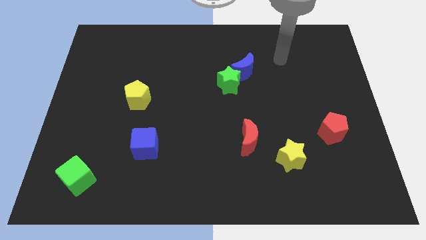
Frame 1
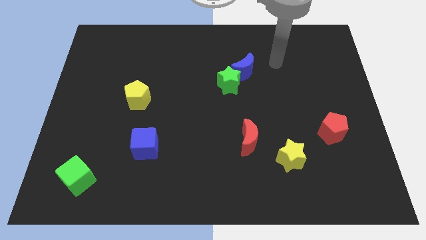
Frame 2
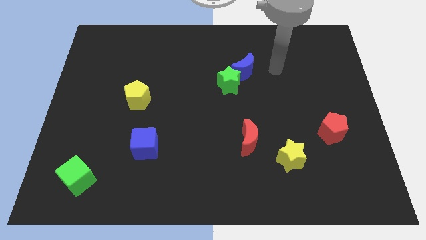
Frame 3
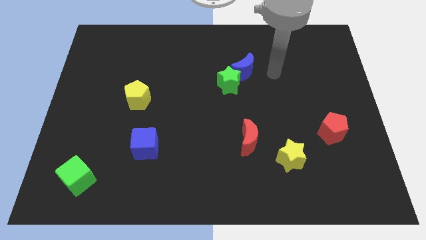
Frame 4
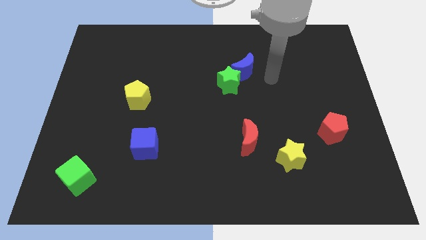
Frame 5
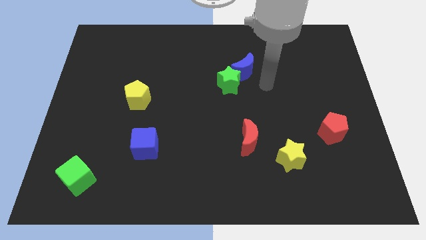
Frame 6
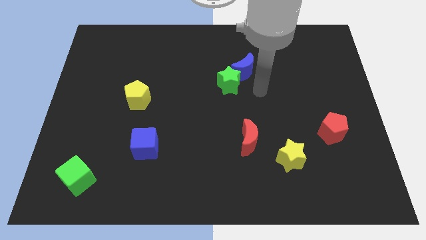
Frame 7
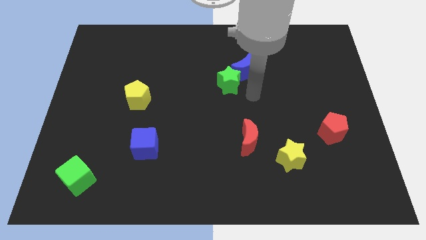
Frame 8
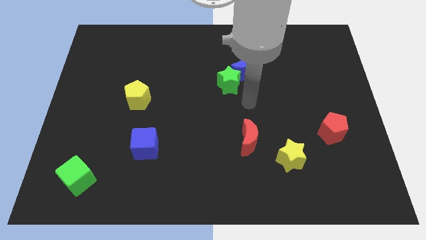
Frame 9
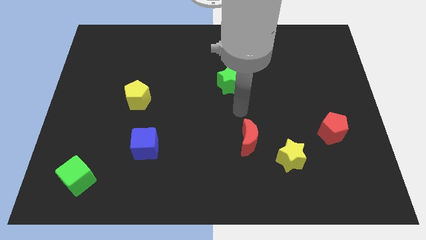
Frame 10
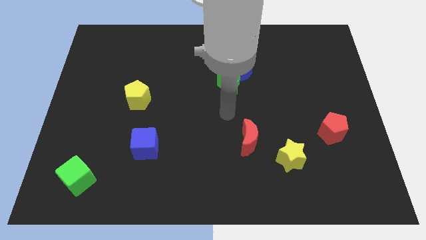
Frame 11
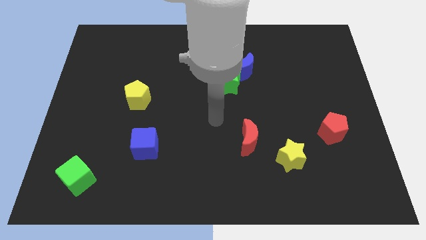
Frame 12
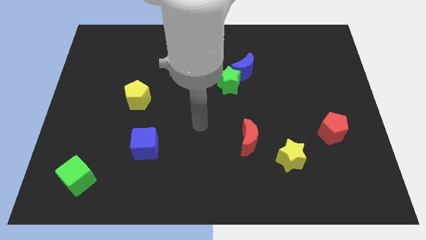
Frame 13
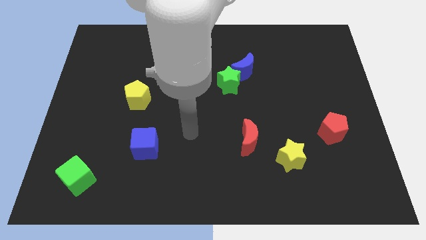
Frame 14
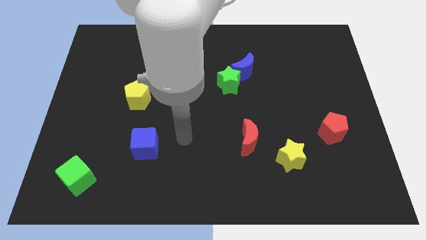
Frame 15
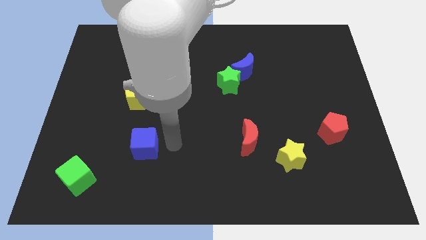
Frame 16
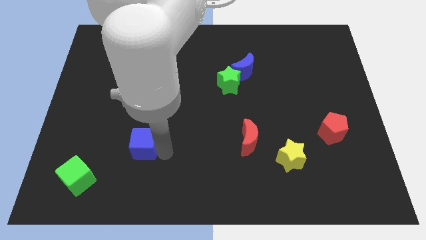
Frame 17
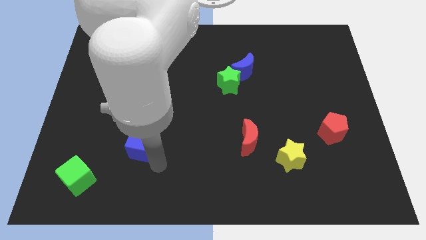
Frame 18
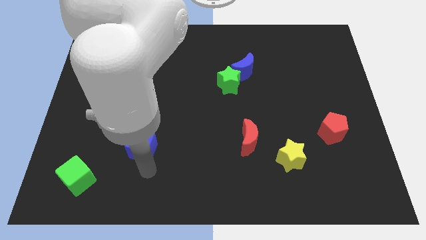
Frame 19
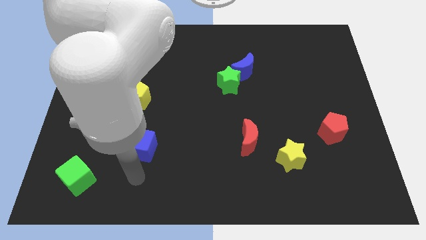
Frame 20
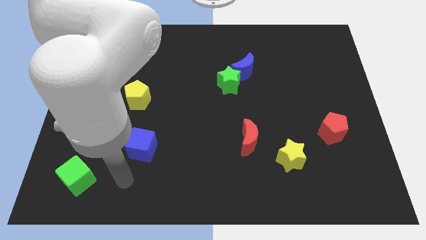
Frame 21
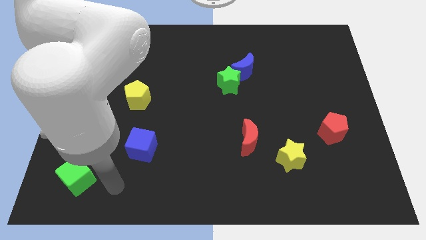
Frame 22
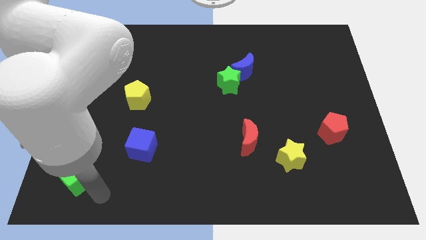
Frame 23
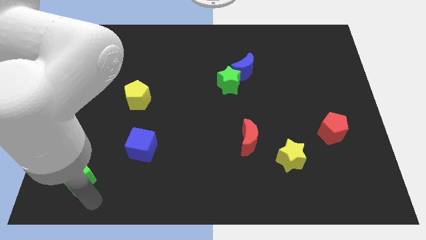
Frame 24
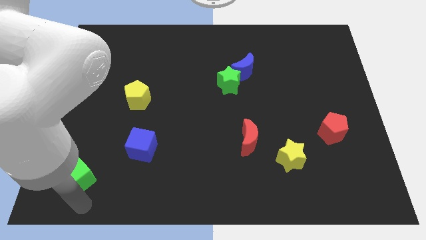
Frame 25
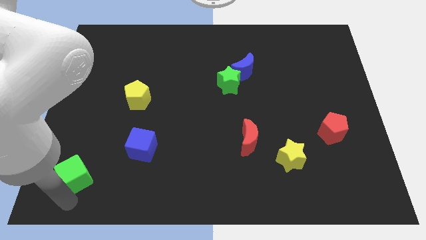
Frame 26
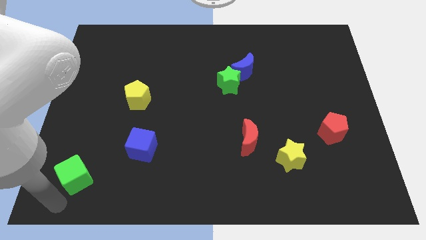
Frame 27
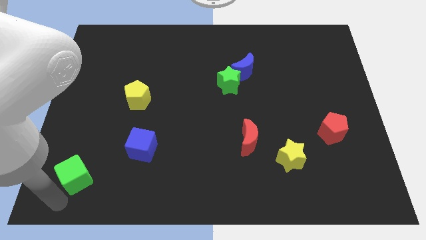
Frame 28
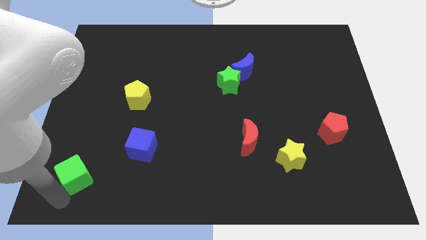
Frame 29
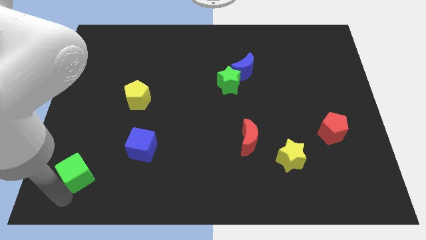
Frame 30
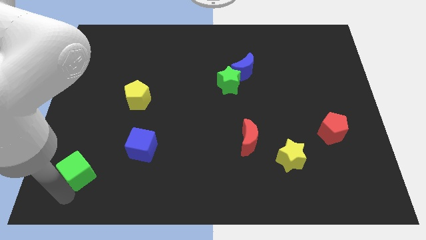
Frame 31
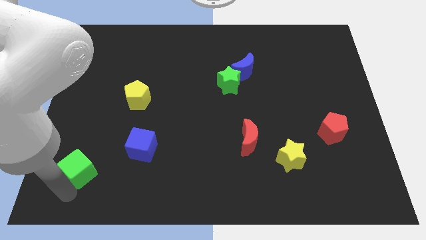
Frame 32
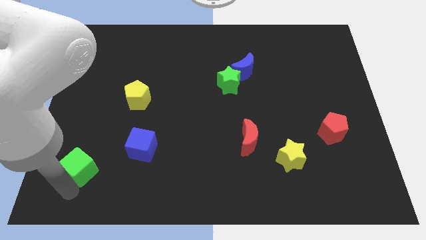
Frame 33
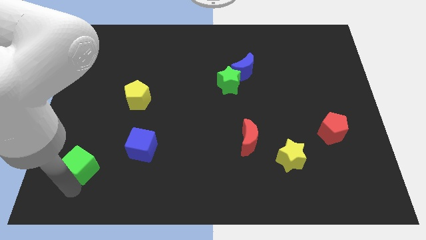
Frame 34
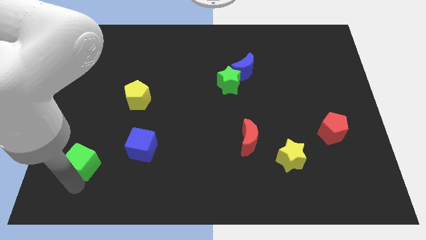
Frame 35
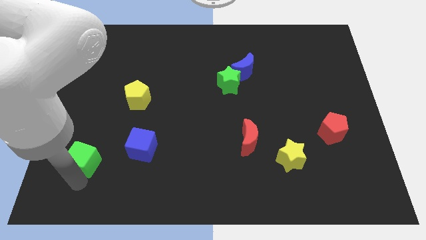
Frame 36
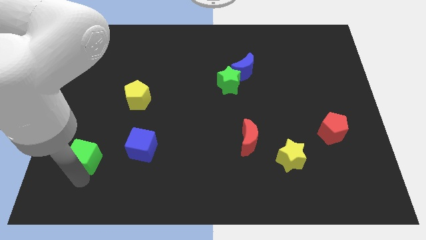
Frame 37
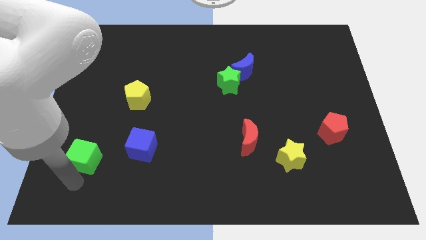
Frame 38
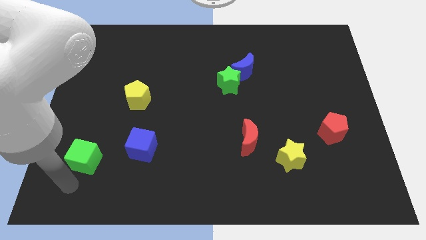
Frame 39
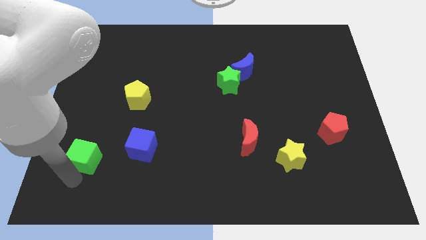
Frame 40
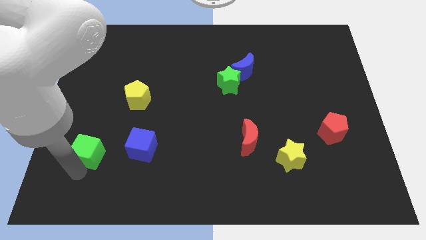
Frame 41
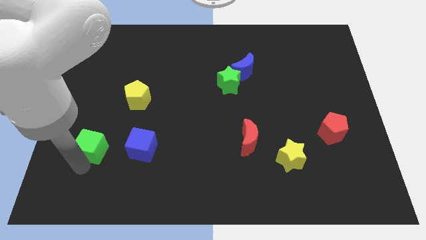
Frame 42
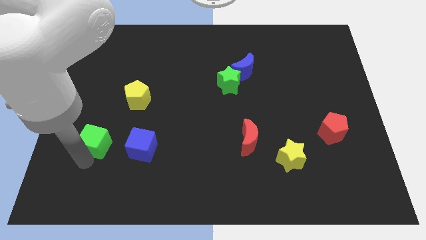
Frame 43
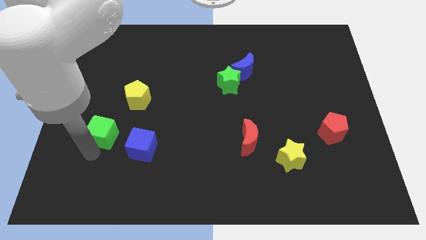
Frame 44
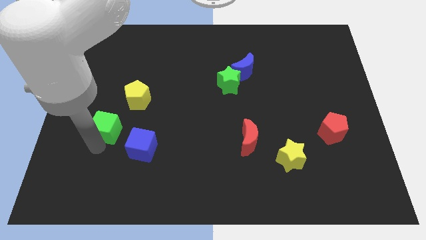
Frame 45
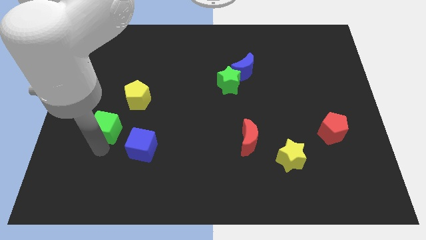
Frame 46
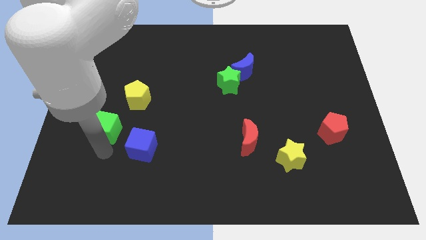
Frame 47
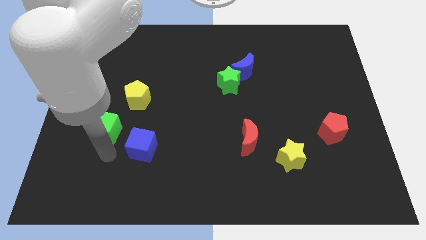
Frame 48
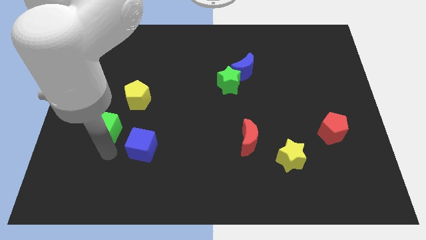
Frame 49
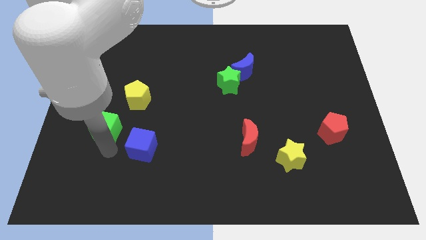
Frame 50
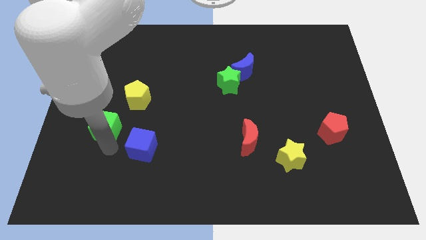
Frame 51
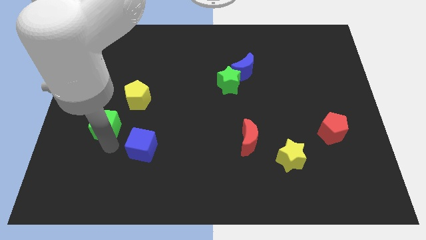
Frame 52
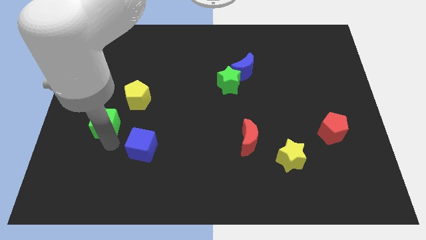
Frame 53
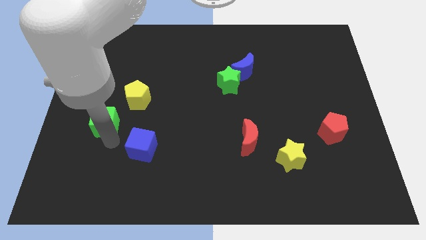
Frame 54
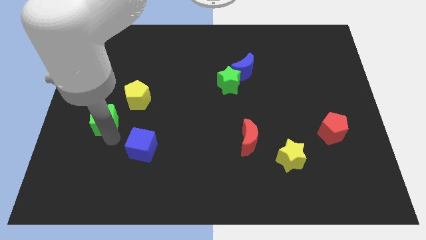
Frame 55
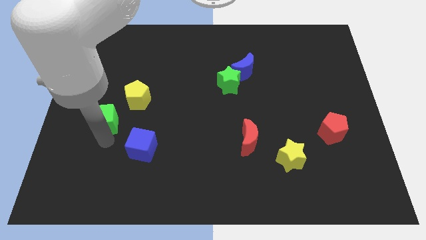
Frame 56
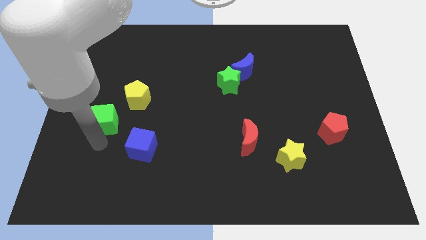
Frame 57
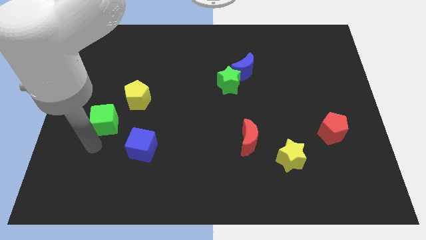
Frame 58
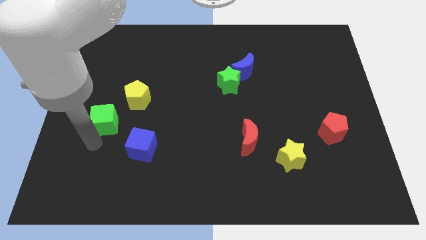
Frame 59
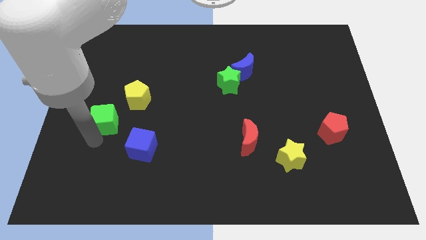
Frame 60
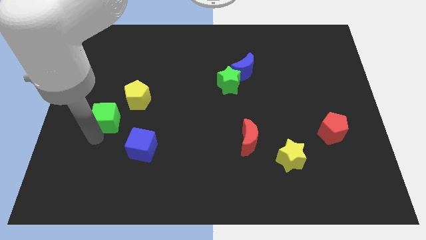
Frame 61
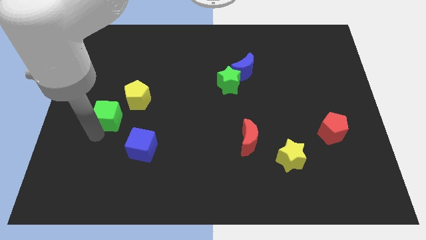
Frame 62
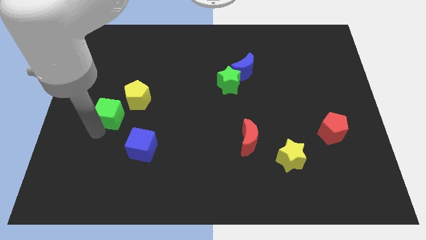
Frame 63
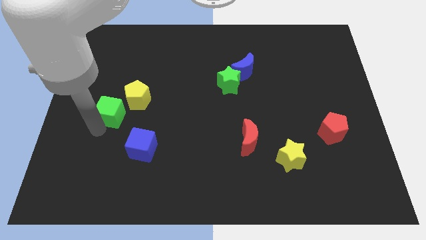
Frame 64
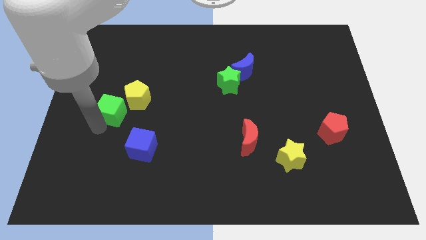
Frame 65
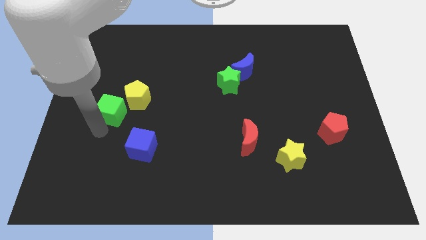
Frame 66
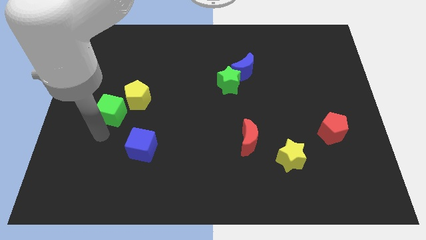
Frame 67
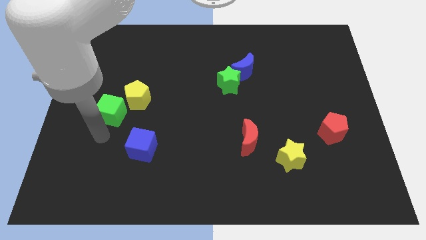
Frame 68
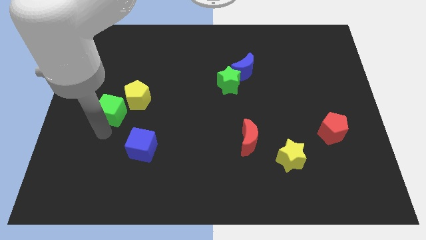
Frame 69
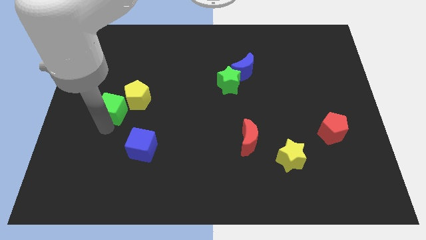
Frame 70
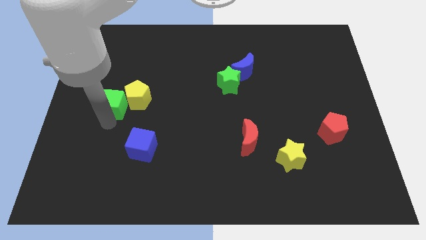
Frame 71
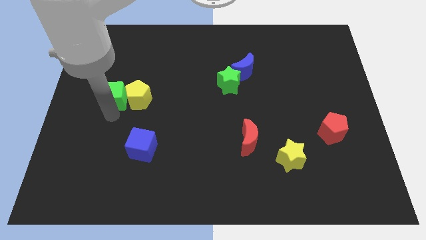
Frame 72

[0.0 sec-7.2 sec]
push the green cube diagonally up and to the left of the yellow pentagon
